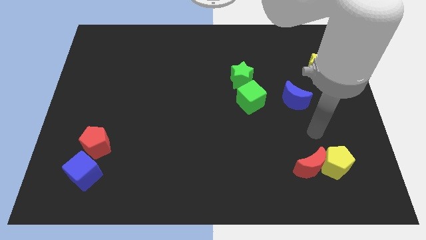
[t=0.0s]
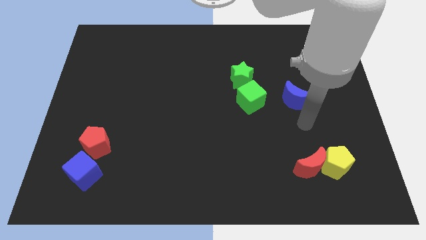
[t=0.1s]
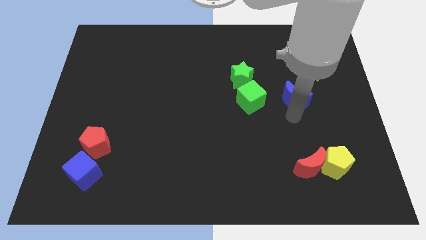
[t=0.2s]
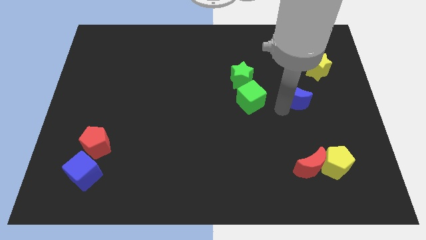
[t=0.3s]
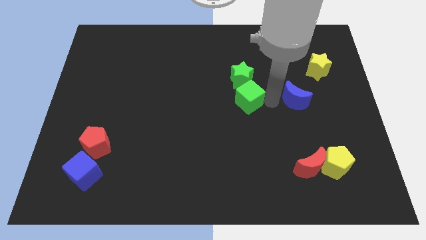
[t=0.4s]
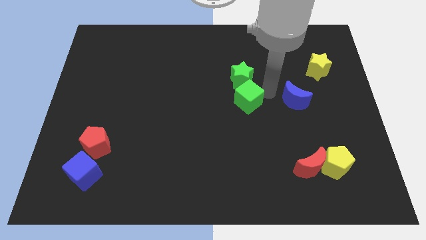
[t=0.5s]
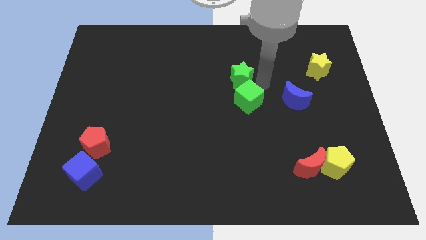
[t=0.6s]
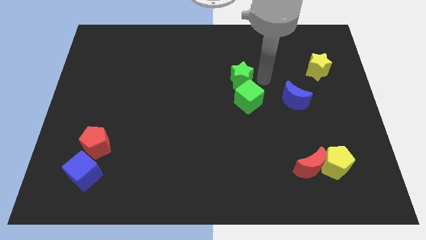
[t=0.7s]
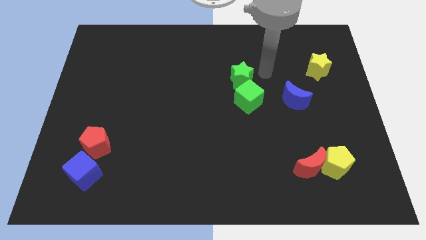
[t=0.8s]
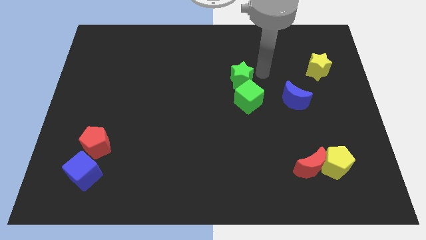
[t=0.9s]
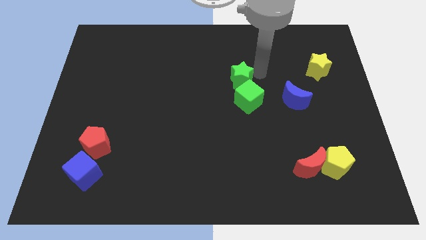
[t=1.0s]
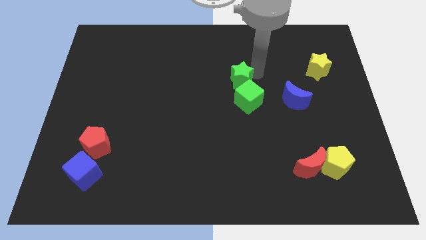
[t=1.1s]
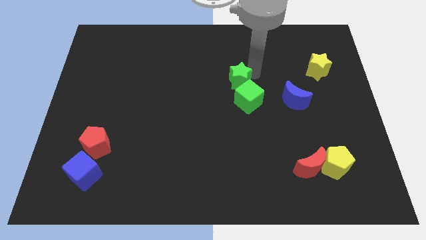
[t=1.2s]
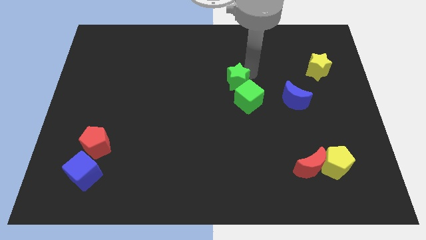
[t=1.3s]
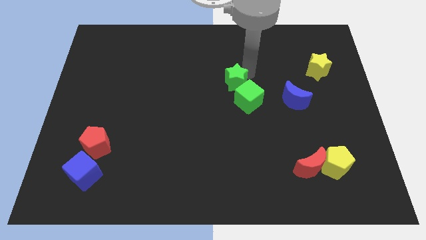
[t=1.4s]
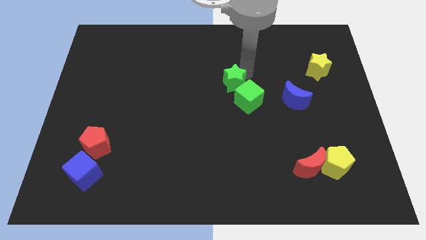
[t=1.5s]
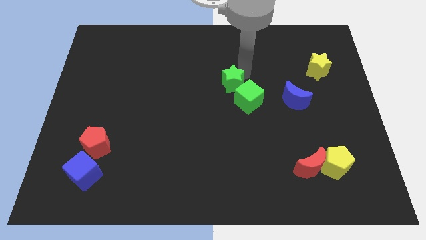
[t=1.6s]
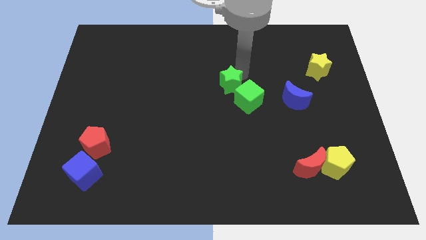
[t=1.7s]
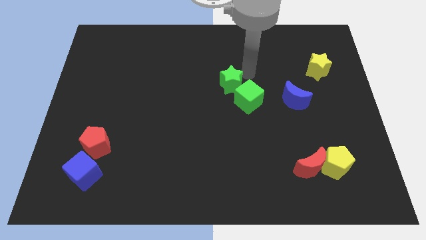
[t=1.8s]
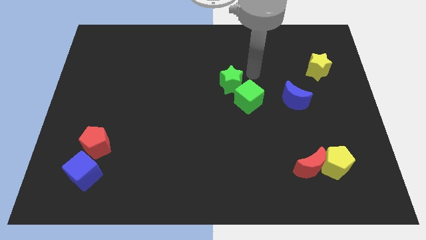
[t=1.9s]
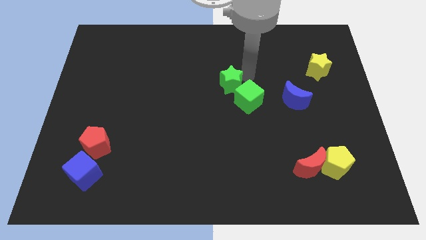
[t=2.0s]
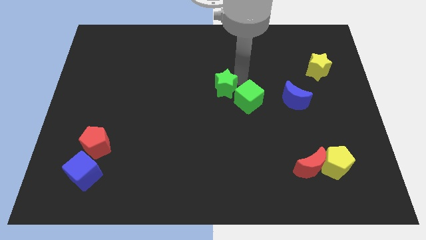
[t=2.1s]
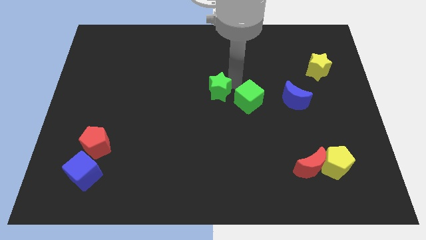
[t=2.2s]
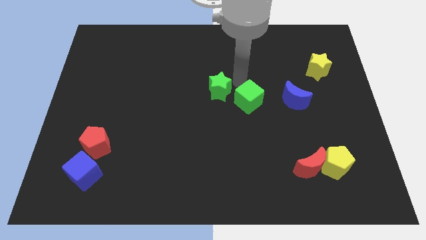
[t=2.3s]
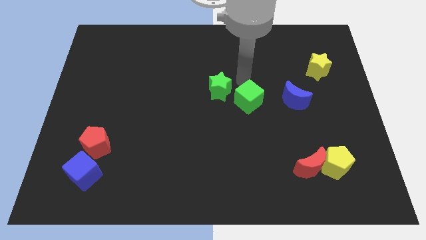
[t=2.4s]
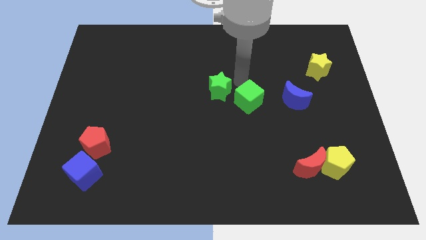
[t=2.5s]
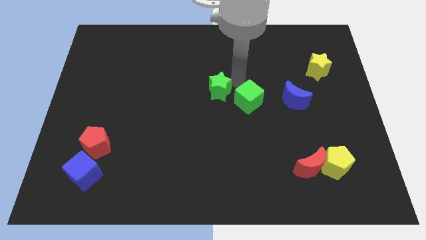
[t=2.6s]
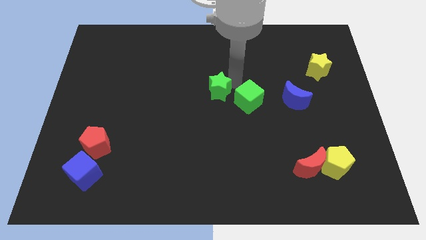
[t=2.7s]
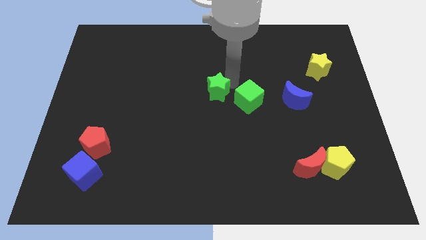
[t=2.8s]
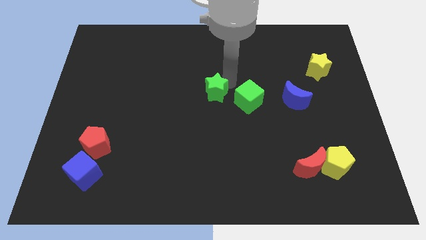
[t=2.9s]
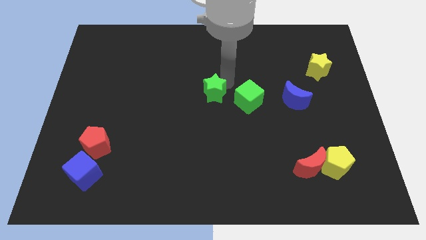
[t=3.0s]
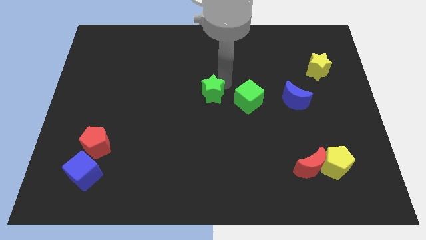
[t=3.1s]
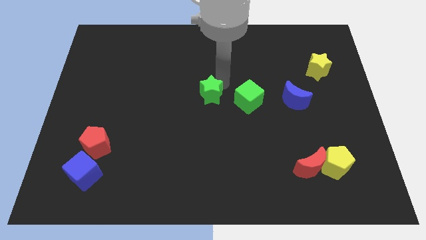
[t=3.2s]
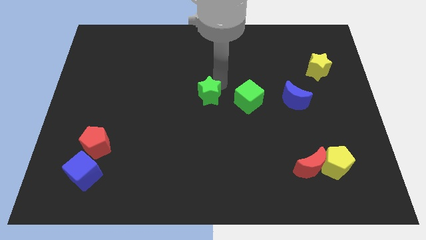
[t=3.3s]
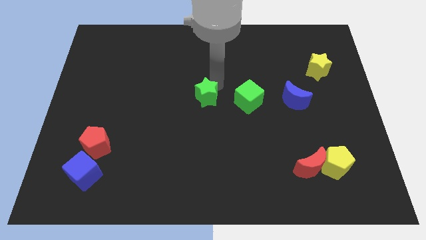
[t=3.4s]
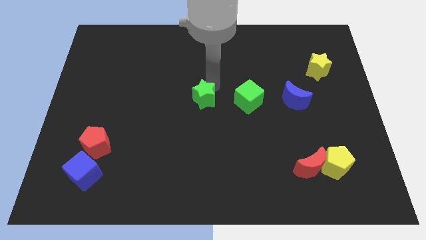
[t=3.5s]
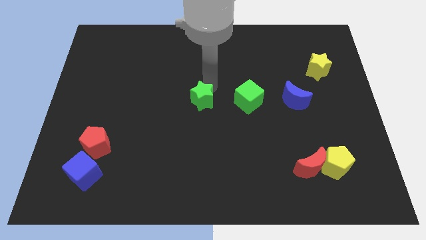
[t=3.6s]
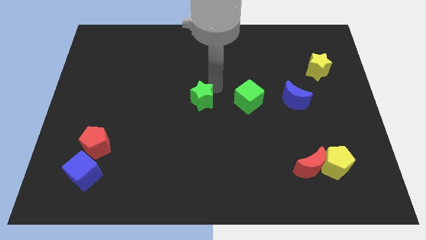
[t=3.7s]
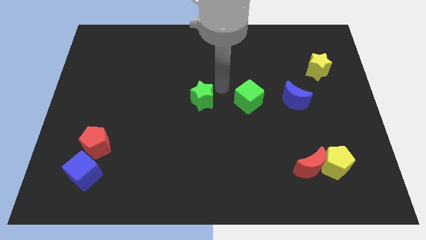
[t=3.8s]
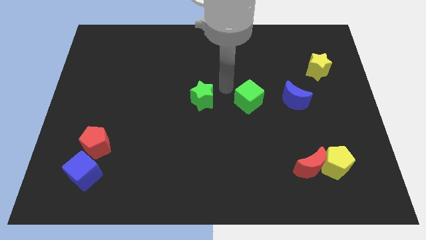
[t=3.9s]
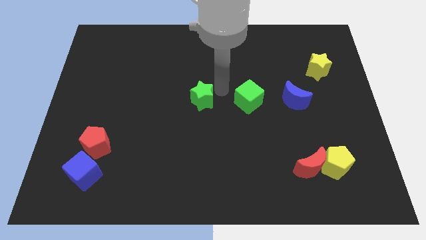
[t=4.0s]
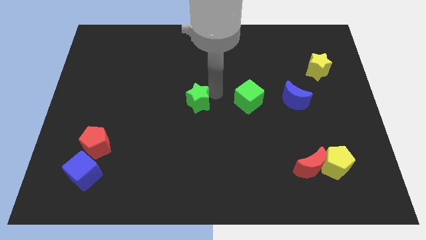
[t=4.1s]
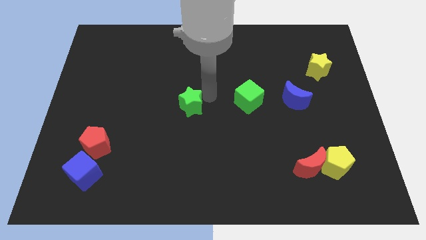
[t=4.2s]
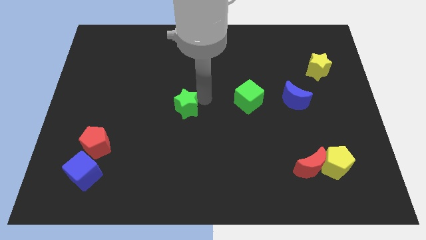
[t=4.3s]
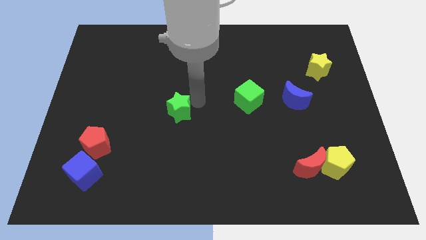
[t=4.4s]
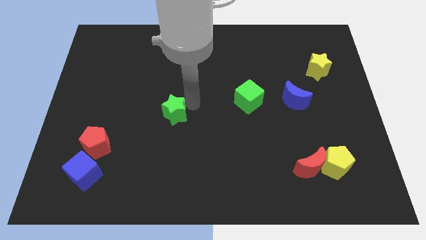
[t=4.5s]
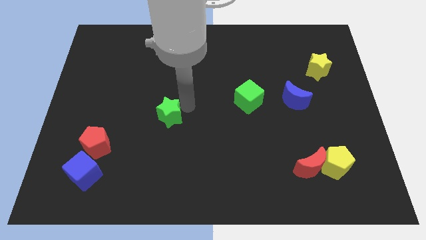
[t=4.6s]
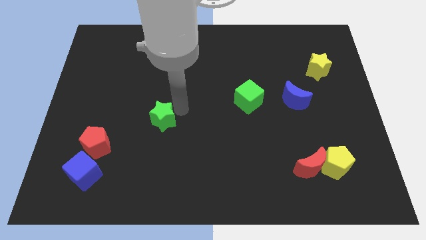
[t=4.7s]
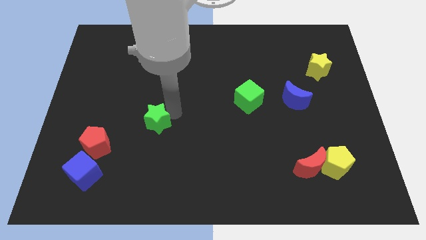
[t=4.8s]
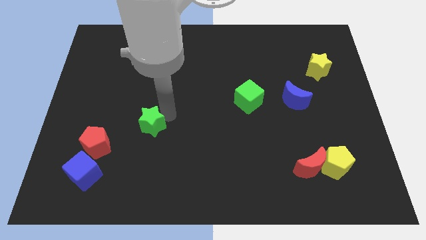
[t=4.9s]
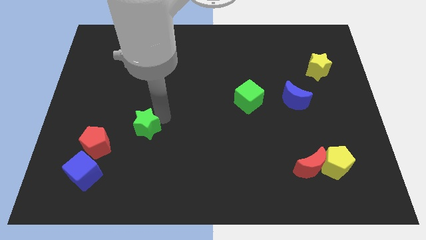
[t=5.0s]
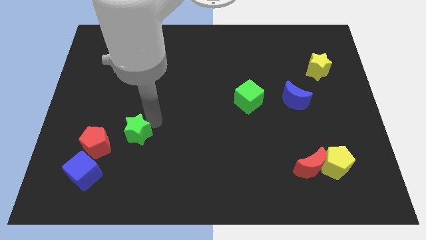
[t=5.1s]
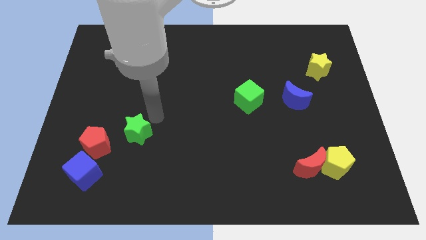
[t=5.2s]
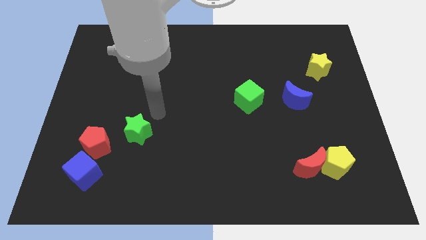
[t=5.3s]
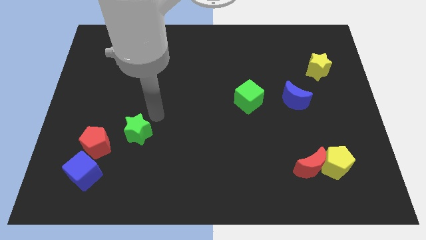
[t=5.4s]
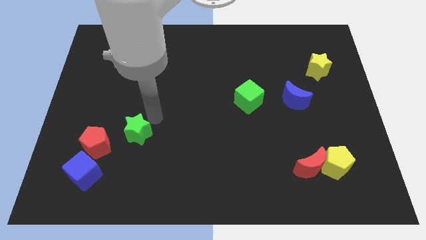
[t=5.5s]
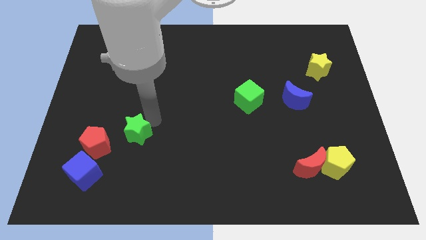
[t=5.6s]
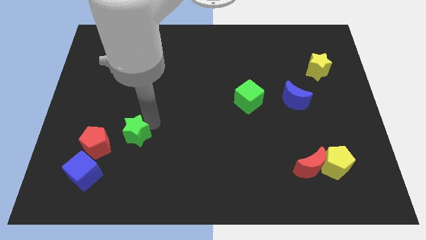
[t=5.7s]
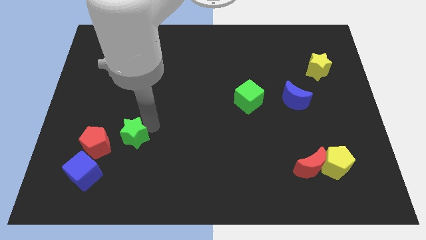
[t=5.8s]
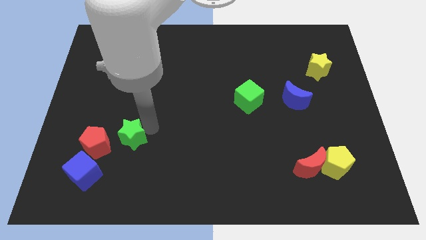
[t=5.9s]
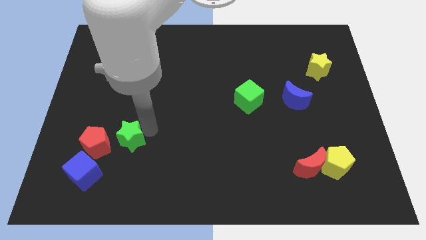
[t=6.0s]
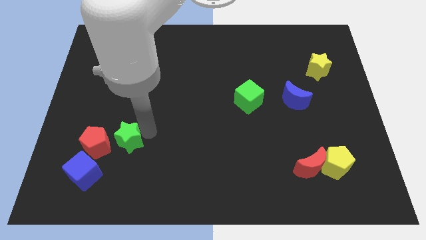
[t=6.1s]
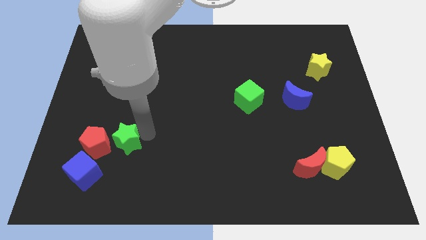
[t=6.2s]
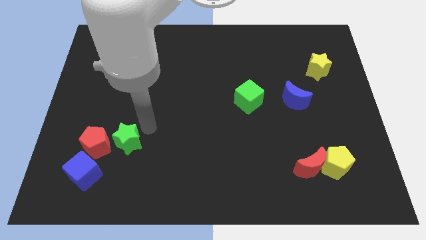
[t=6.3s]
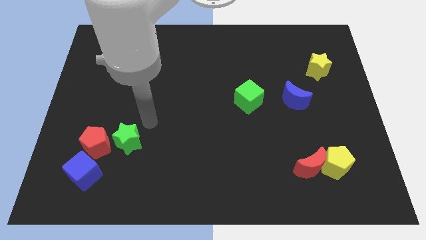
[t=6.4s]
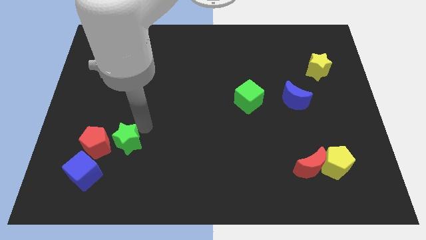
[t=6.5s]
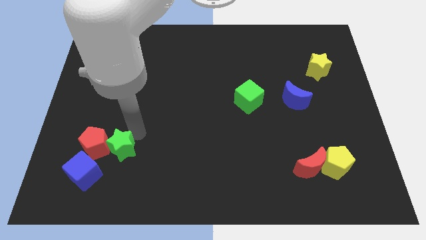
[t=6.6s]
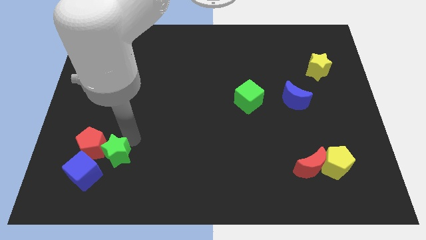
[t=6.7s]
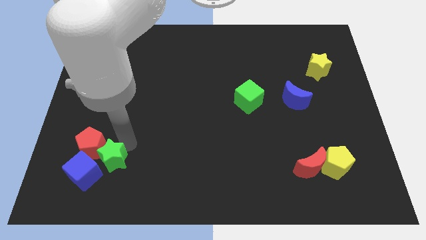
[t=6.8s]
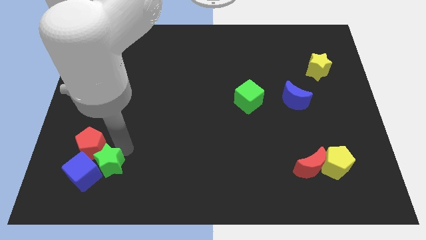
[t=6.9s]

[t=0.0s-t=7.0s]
put the green star towards the blue cube

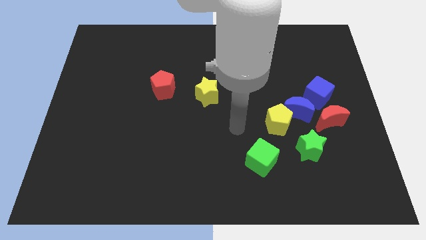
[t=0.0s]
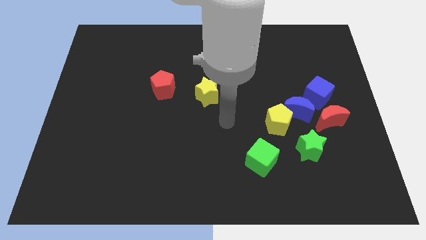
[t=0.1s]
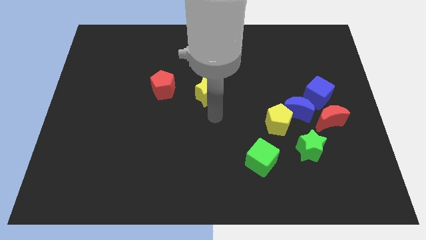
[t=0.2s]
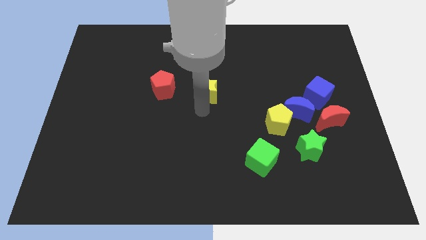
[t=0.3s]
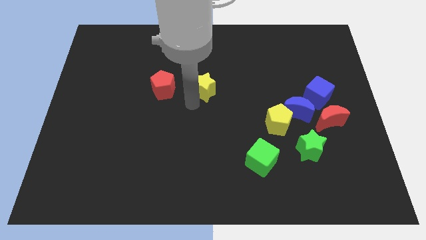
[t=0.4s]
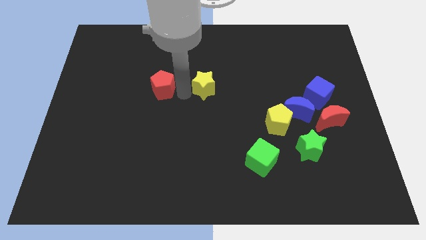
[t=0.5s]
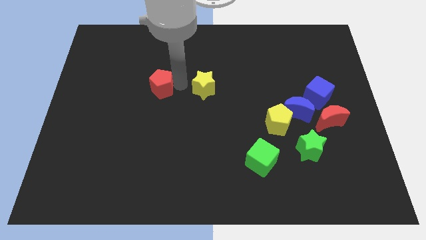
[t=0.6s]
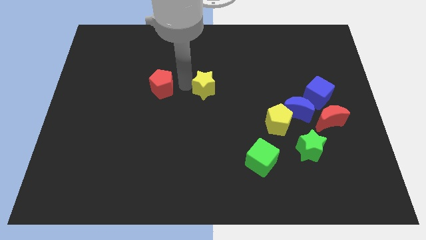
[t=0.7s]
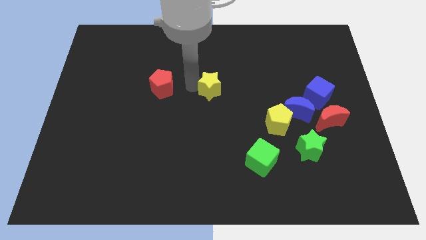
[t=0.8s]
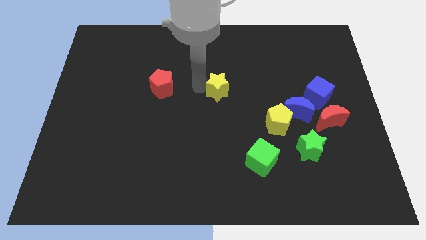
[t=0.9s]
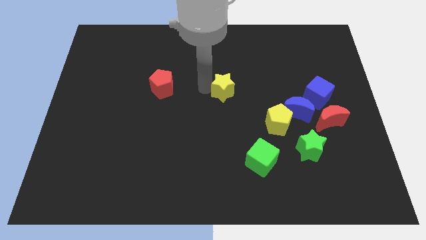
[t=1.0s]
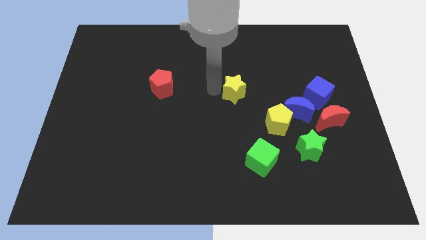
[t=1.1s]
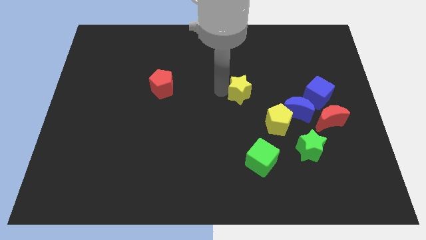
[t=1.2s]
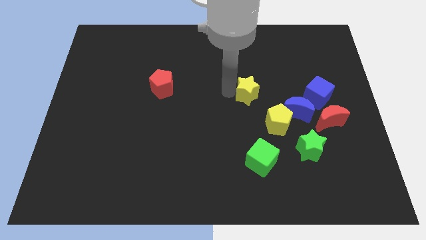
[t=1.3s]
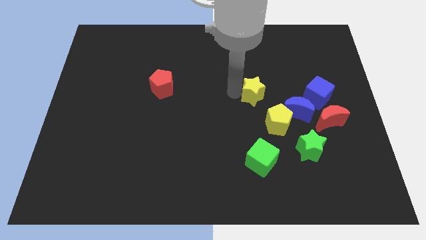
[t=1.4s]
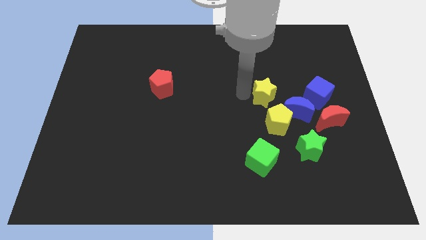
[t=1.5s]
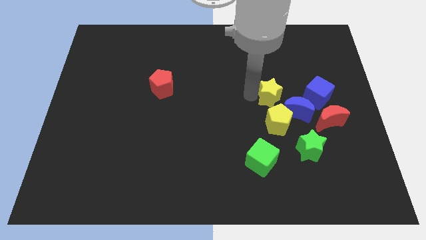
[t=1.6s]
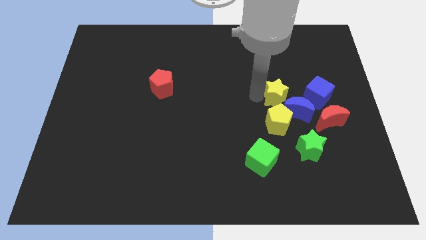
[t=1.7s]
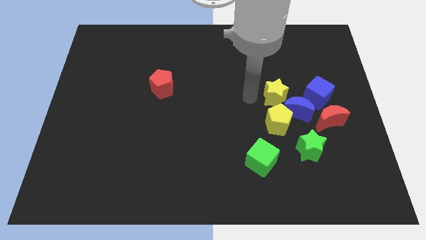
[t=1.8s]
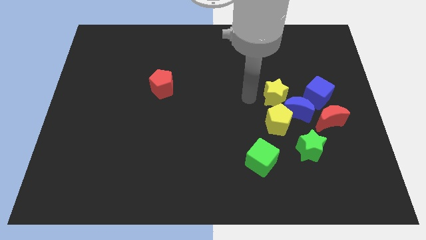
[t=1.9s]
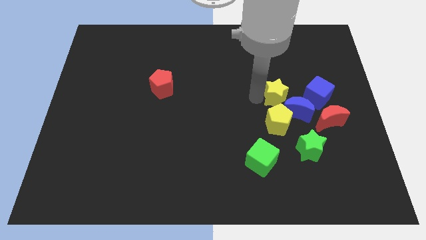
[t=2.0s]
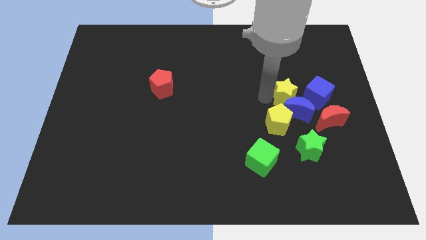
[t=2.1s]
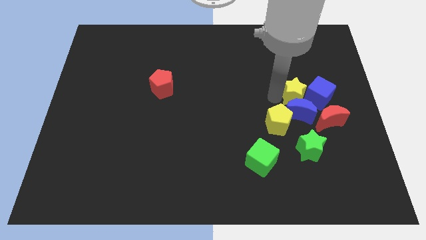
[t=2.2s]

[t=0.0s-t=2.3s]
push the yellow star next to the blue cube
